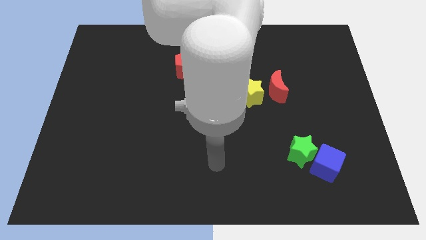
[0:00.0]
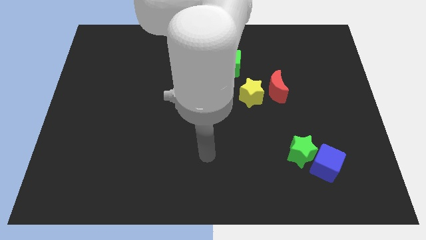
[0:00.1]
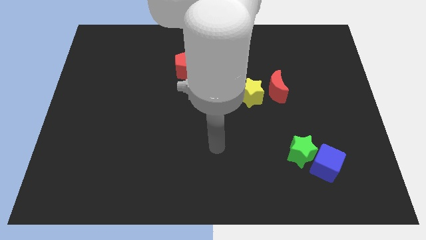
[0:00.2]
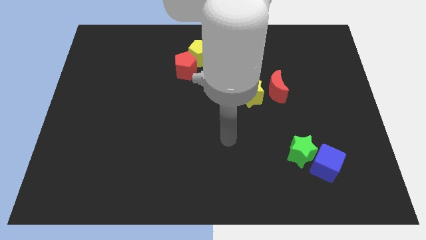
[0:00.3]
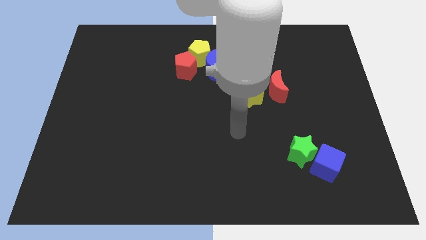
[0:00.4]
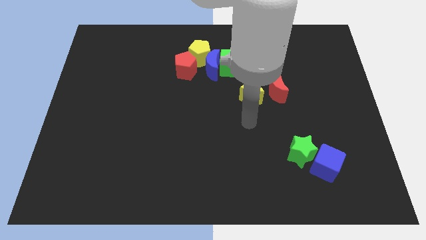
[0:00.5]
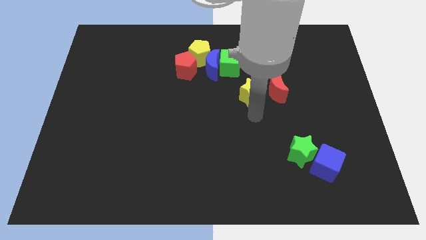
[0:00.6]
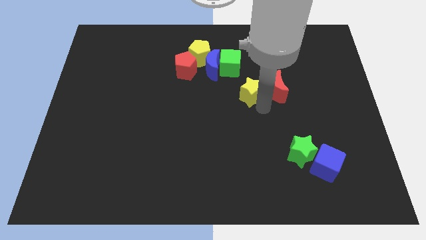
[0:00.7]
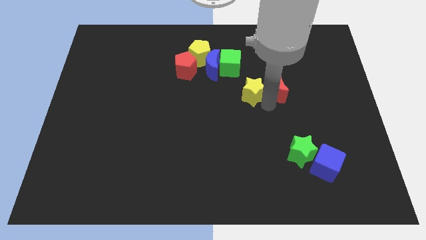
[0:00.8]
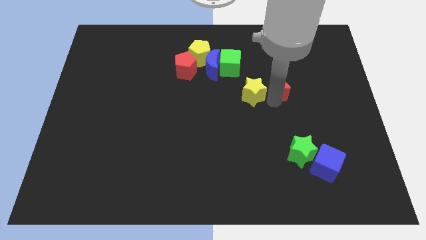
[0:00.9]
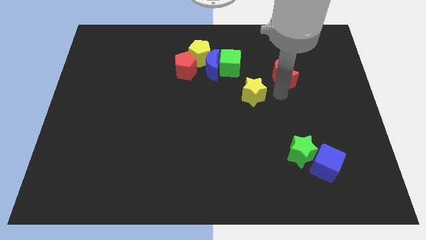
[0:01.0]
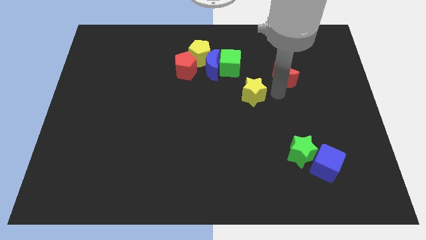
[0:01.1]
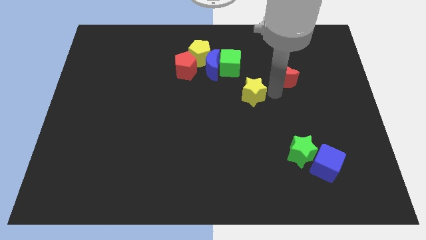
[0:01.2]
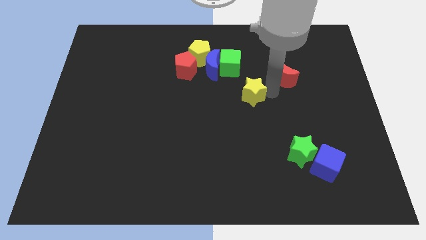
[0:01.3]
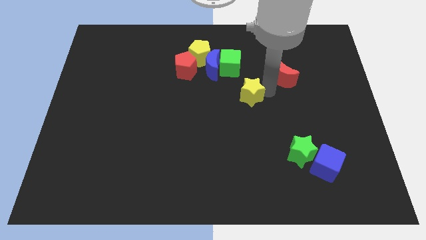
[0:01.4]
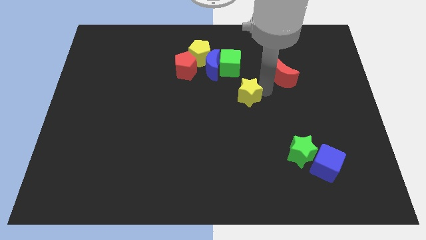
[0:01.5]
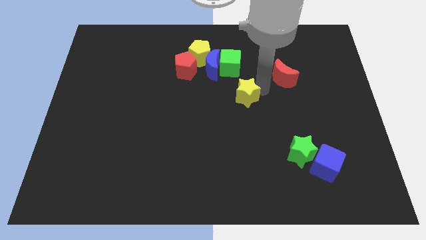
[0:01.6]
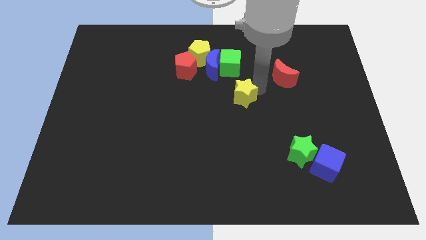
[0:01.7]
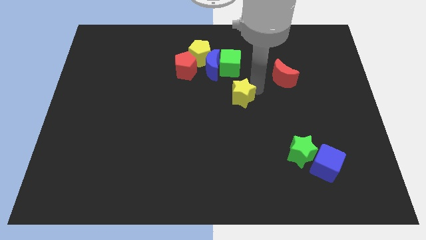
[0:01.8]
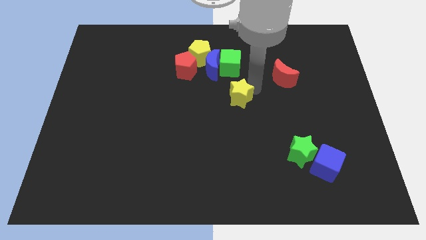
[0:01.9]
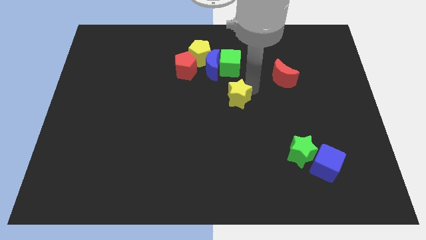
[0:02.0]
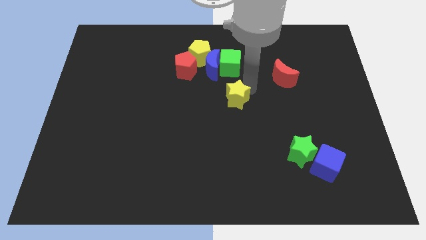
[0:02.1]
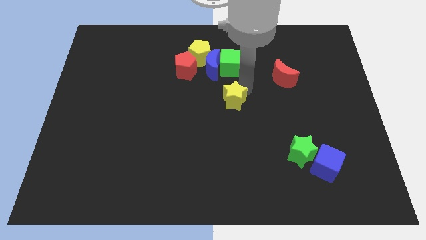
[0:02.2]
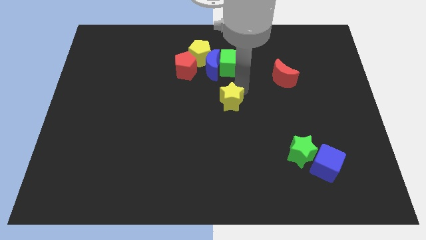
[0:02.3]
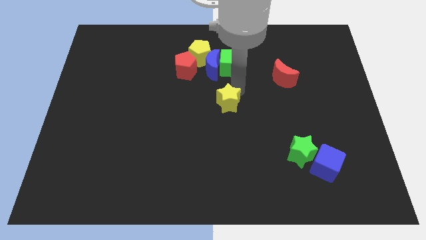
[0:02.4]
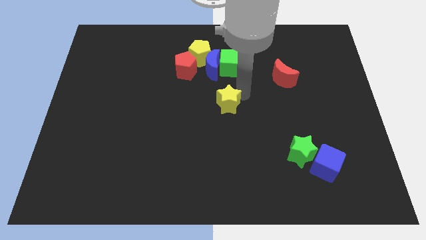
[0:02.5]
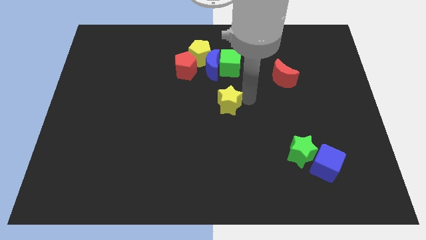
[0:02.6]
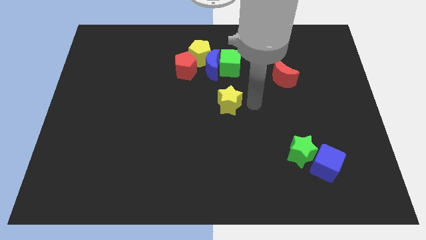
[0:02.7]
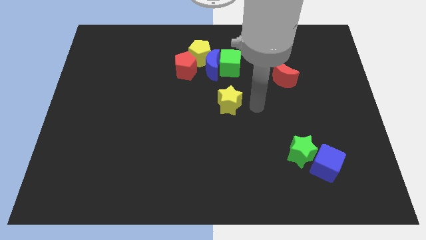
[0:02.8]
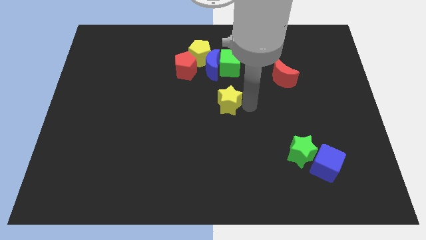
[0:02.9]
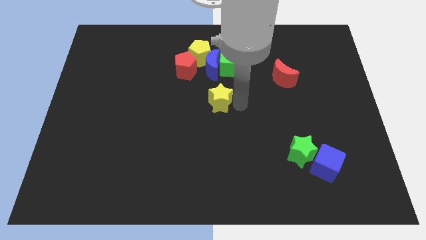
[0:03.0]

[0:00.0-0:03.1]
move the yellow star slightly left

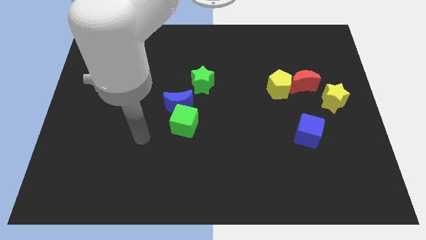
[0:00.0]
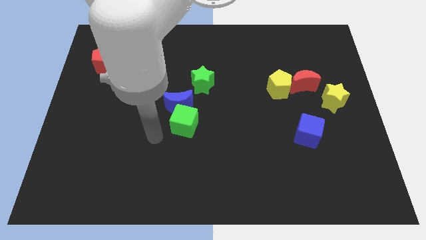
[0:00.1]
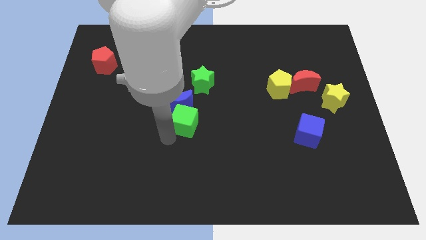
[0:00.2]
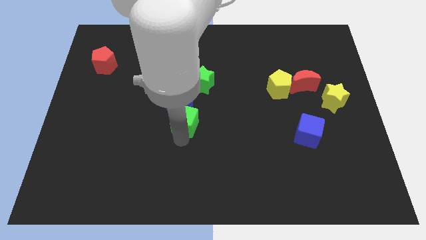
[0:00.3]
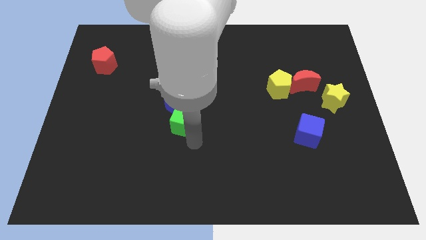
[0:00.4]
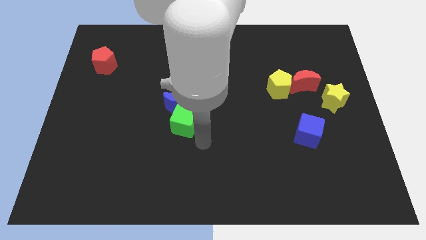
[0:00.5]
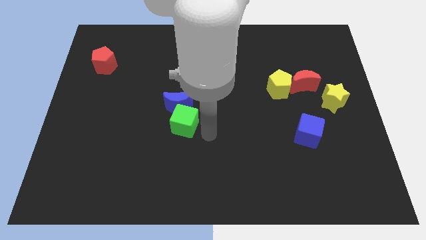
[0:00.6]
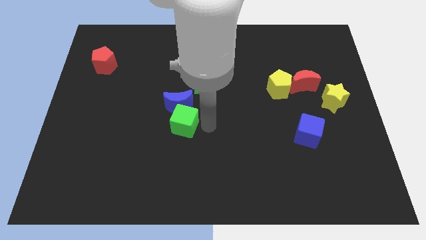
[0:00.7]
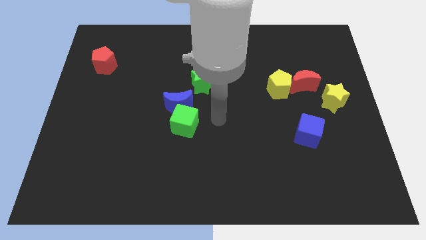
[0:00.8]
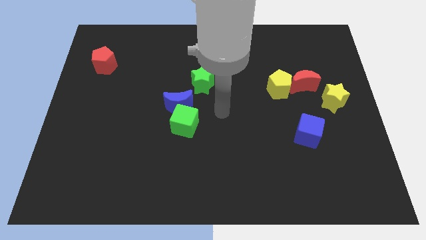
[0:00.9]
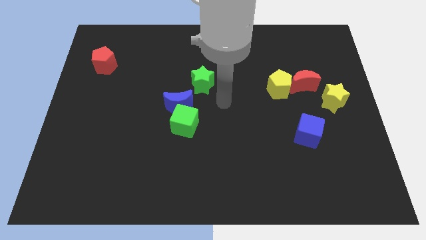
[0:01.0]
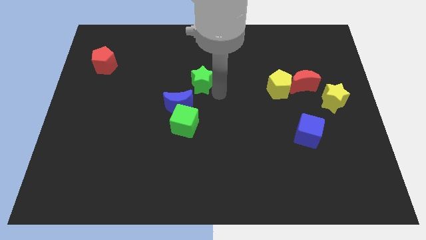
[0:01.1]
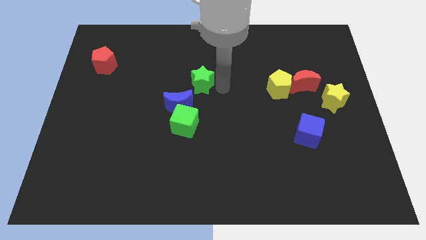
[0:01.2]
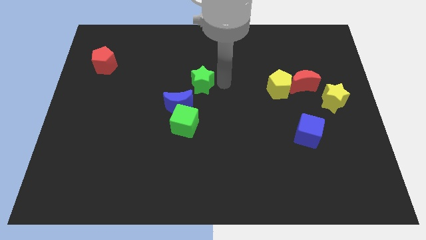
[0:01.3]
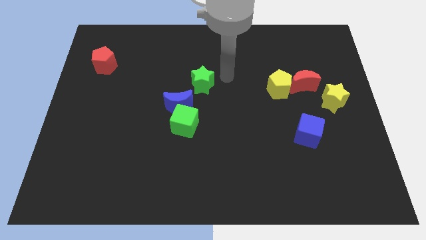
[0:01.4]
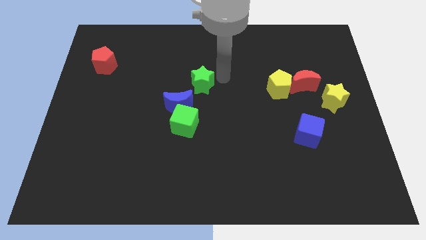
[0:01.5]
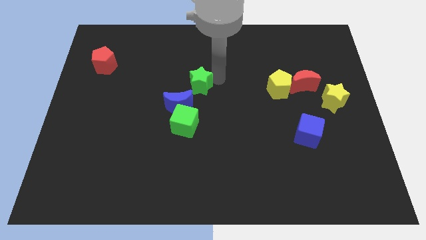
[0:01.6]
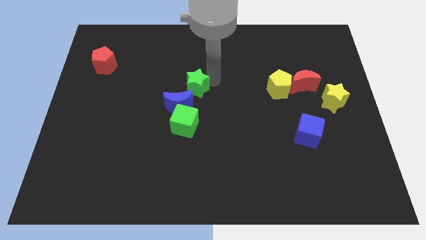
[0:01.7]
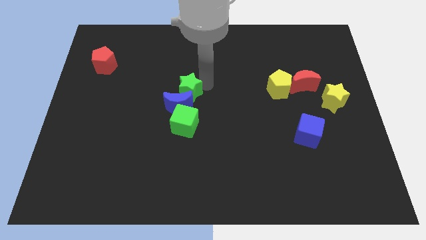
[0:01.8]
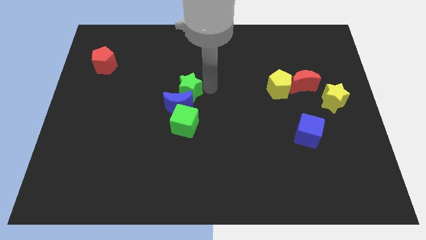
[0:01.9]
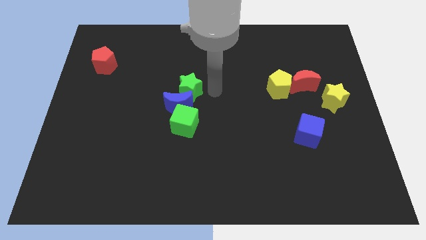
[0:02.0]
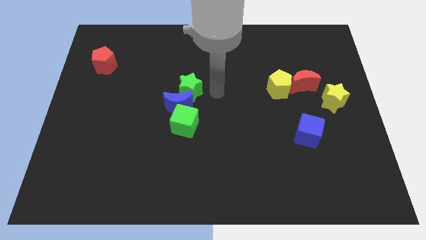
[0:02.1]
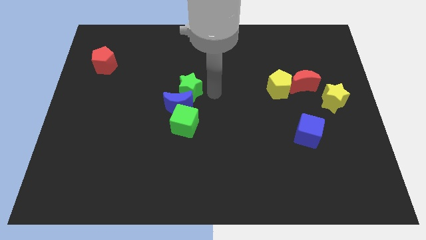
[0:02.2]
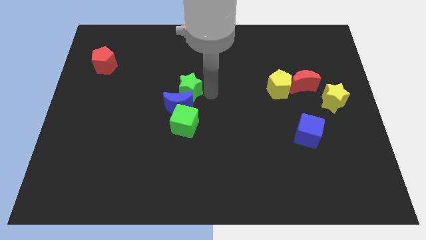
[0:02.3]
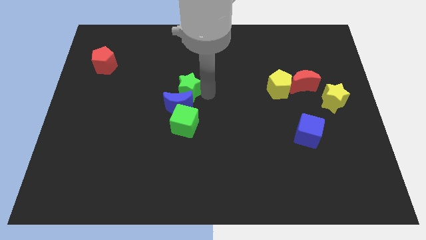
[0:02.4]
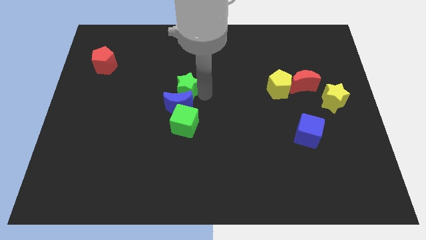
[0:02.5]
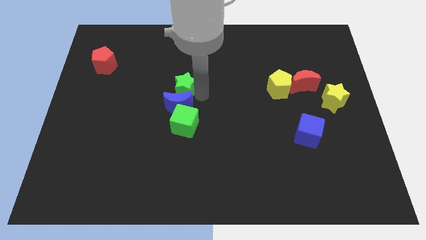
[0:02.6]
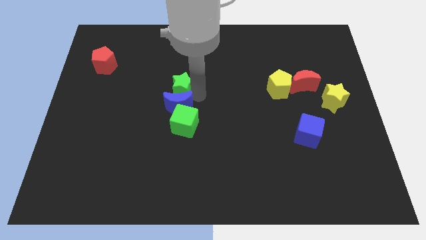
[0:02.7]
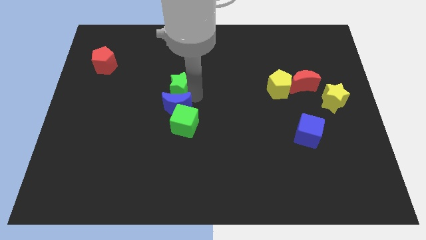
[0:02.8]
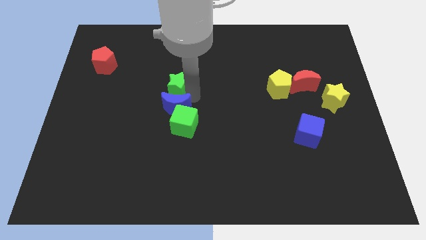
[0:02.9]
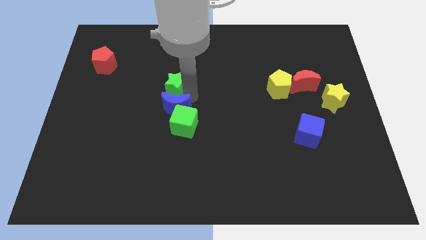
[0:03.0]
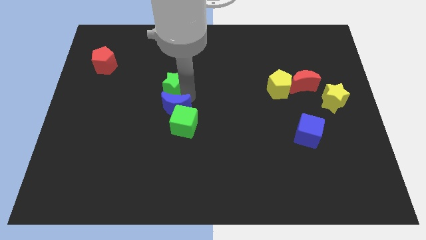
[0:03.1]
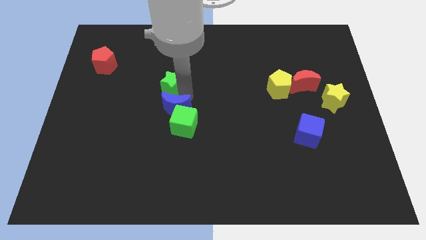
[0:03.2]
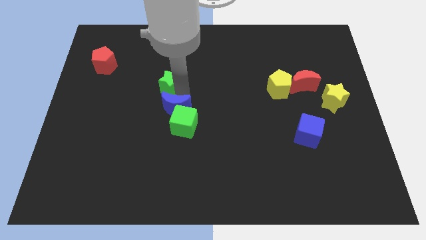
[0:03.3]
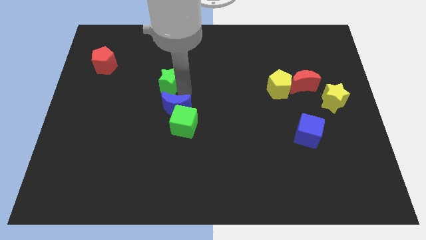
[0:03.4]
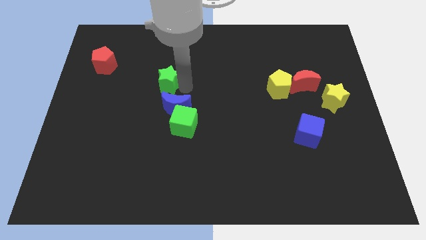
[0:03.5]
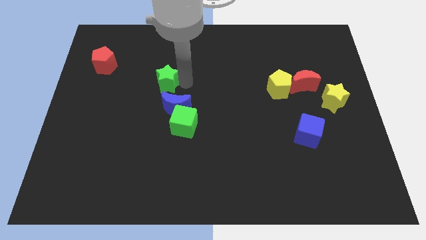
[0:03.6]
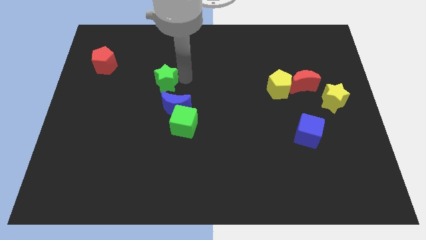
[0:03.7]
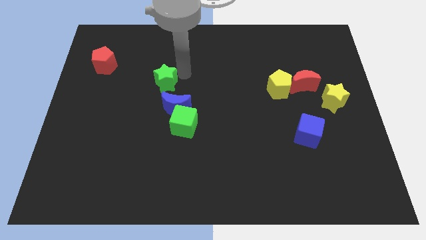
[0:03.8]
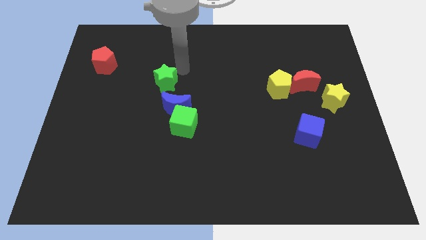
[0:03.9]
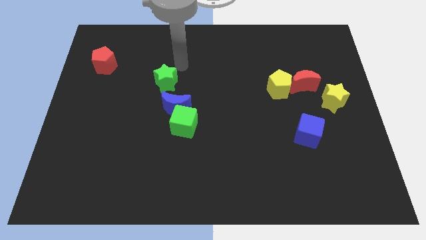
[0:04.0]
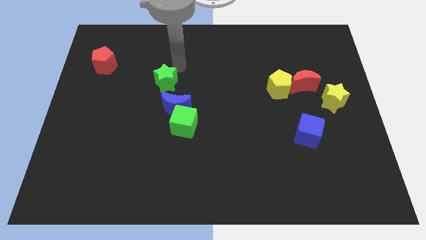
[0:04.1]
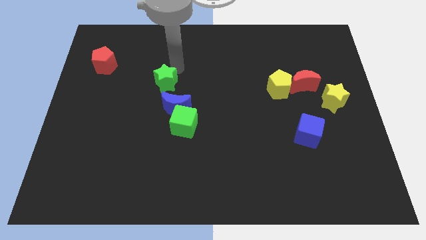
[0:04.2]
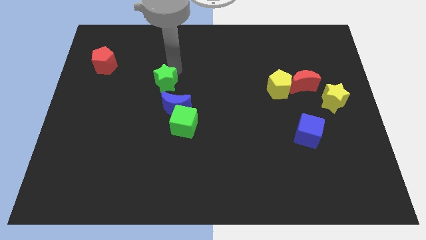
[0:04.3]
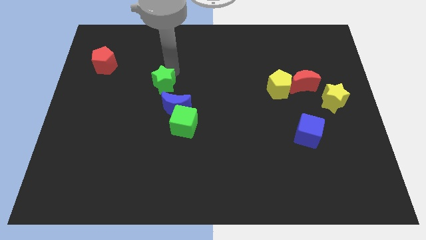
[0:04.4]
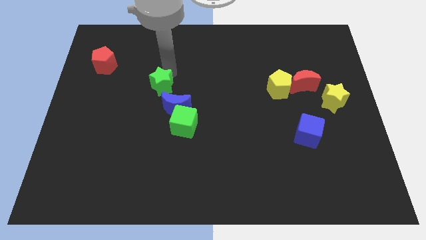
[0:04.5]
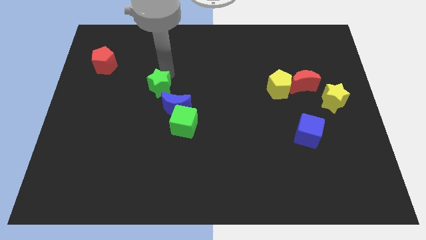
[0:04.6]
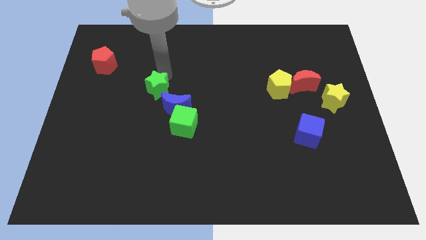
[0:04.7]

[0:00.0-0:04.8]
slightly slide the green star down and left

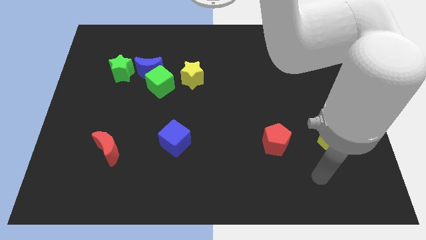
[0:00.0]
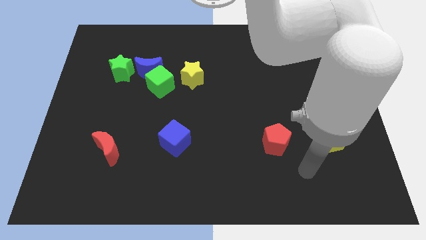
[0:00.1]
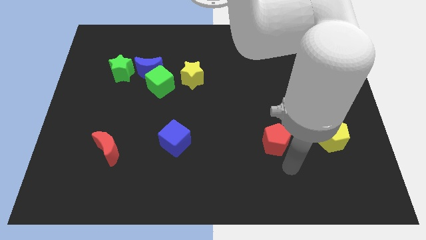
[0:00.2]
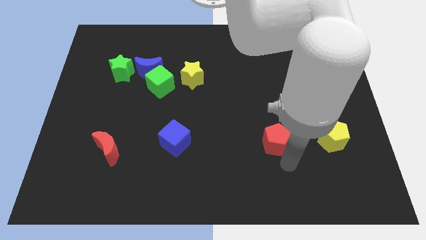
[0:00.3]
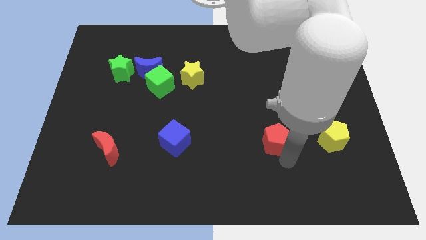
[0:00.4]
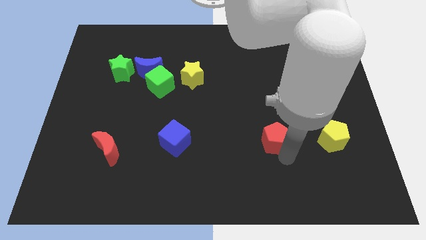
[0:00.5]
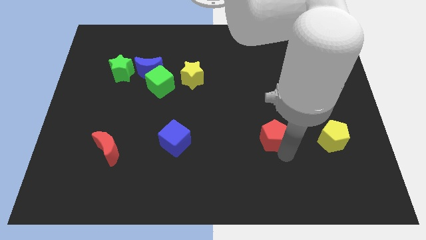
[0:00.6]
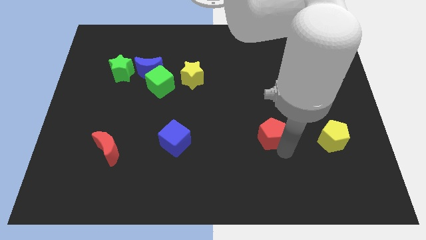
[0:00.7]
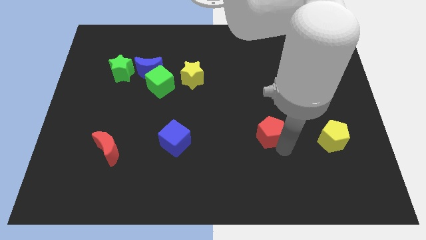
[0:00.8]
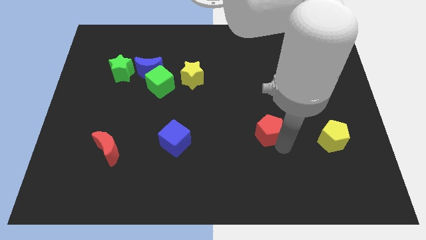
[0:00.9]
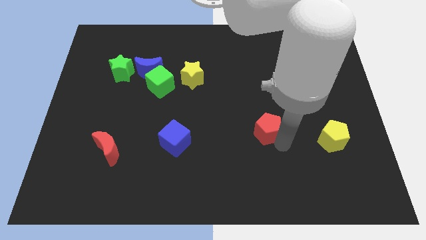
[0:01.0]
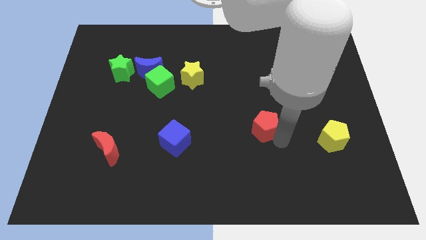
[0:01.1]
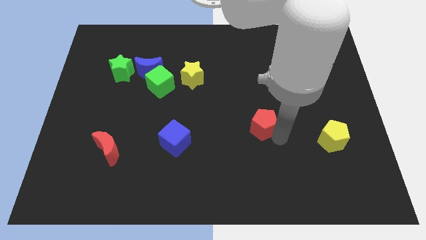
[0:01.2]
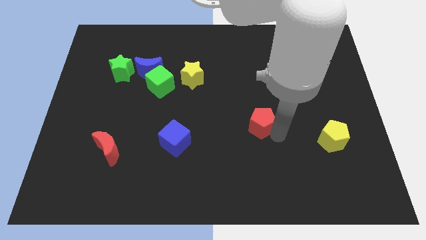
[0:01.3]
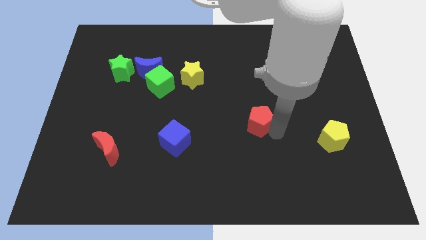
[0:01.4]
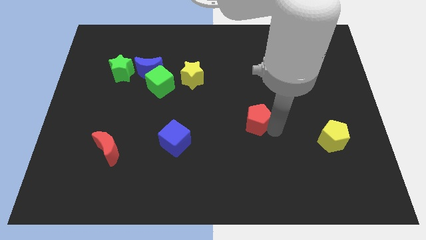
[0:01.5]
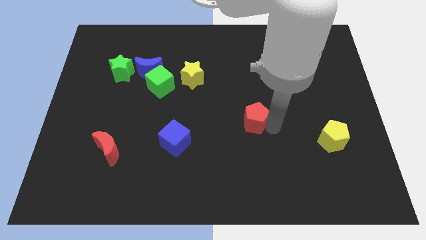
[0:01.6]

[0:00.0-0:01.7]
push the red pentagon a little diagonally upwards and left
